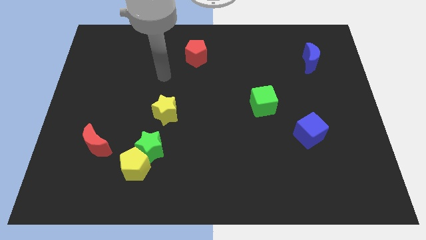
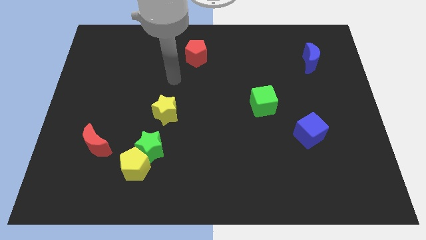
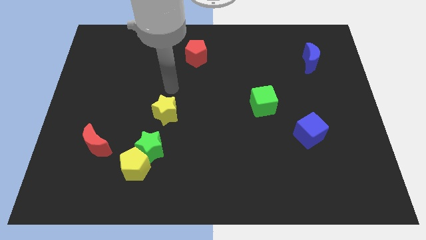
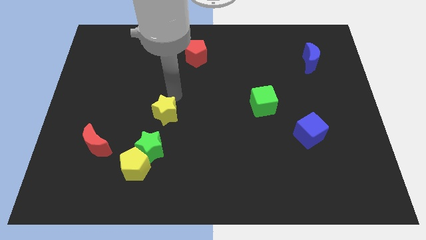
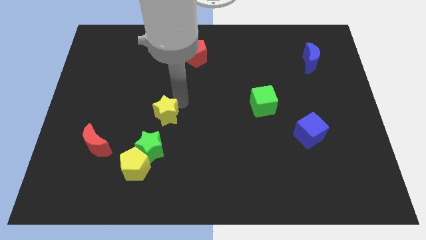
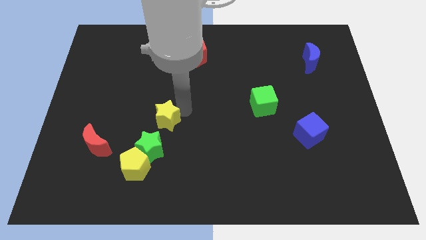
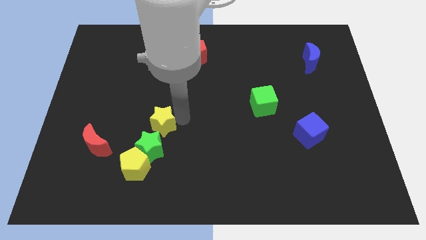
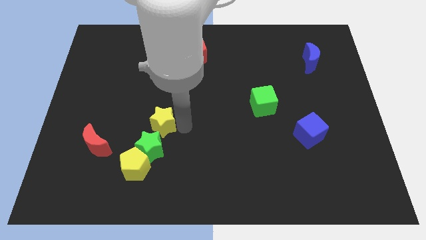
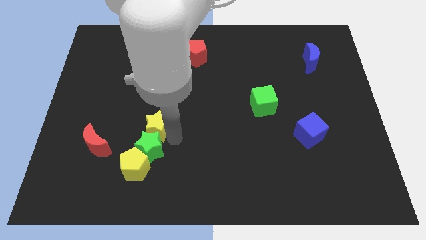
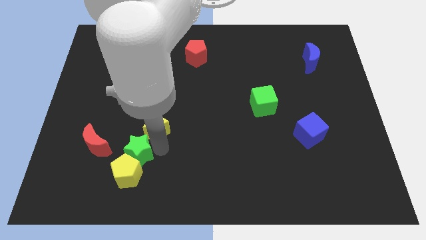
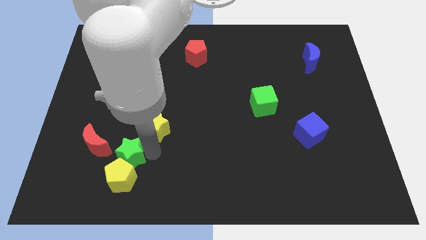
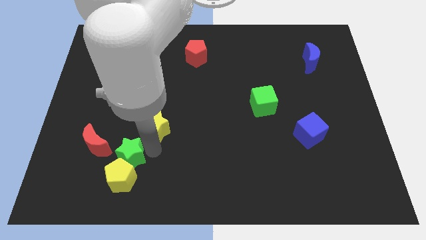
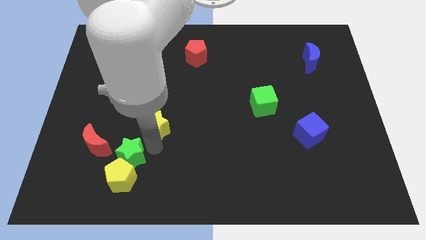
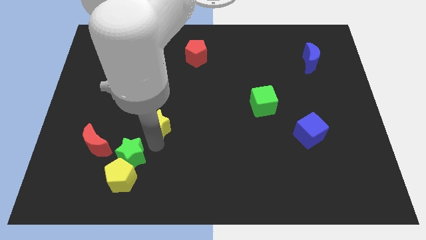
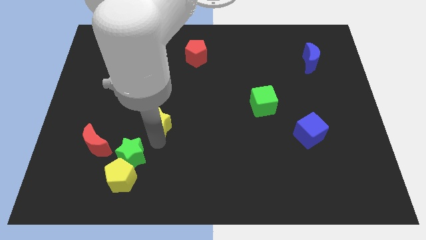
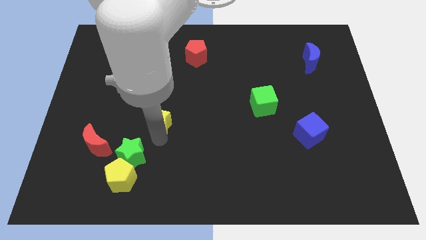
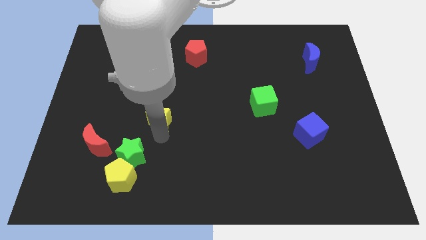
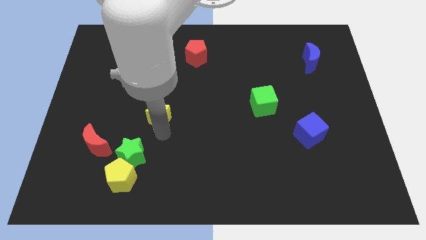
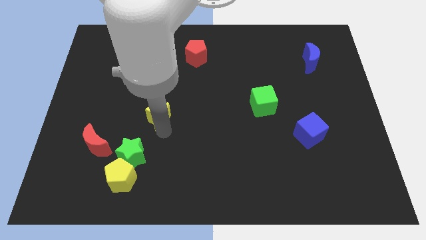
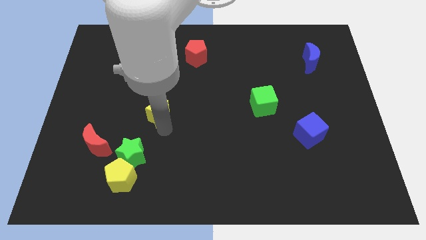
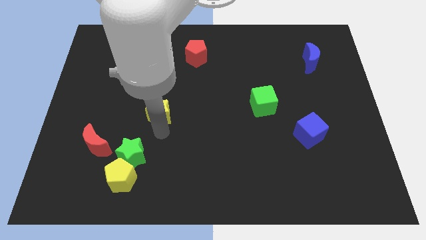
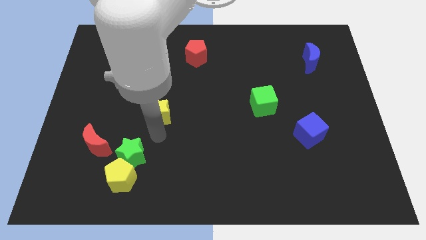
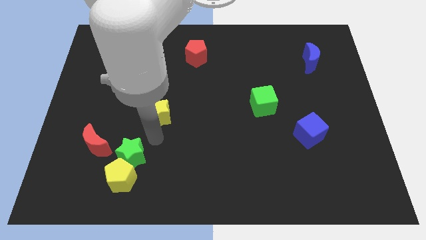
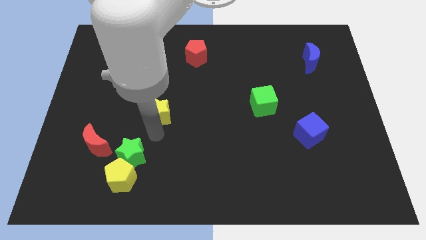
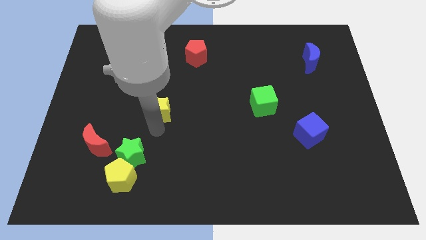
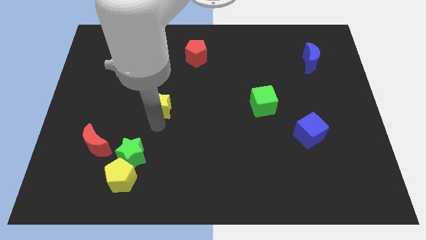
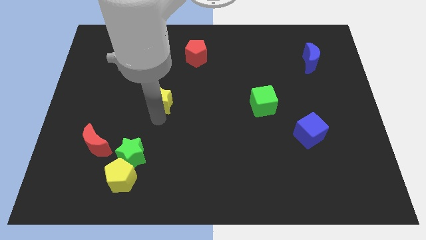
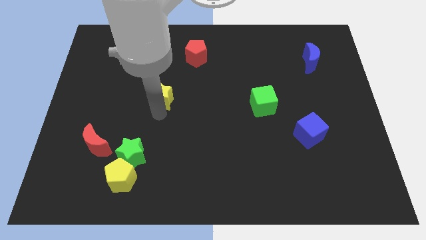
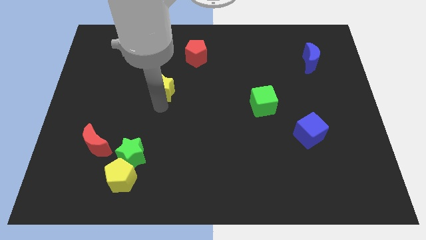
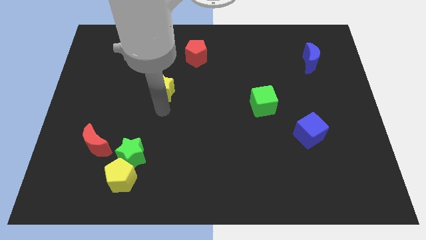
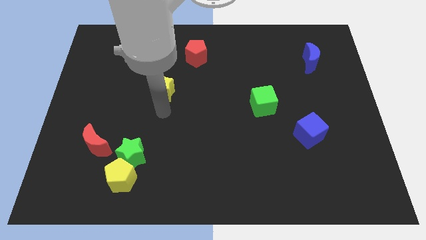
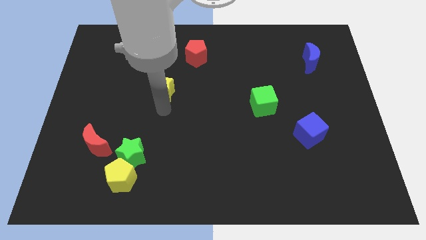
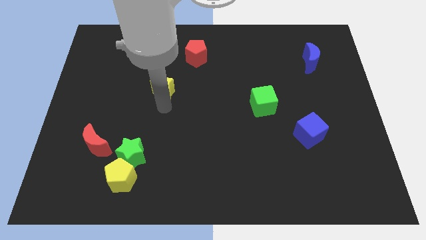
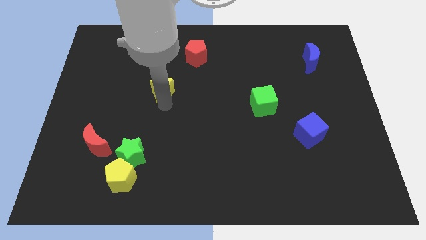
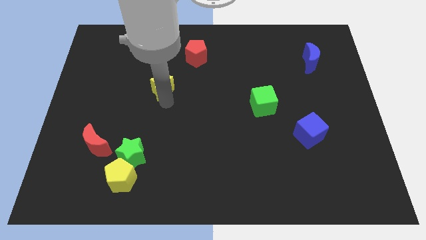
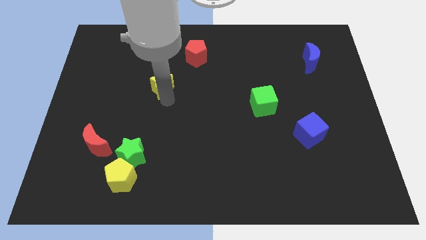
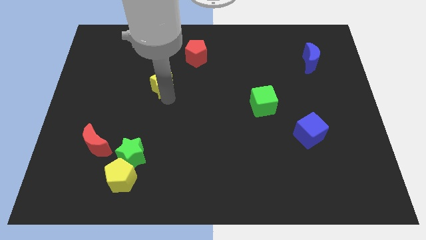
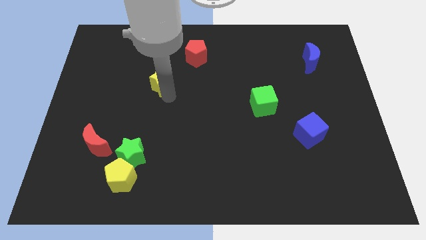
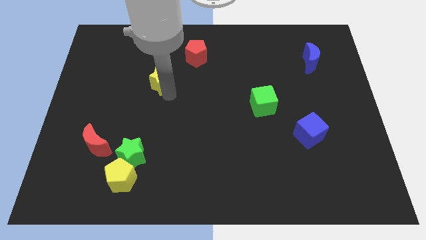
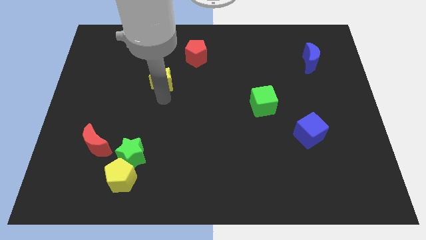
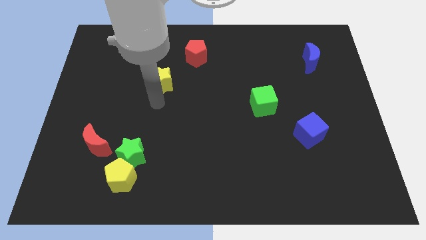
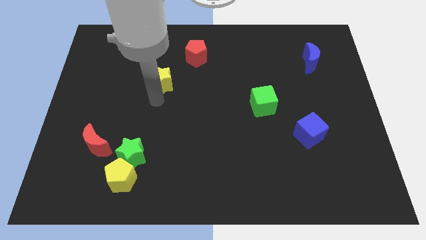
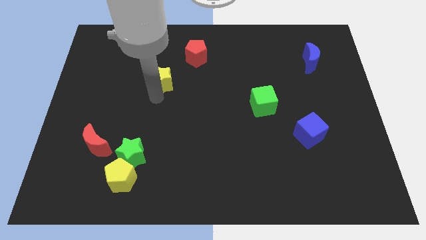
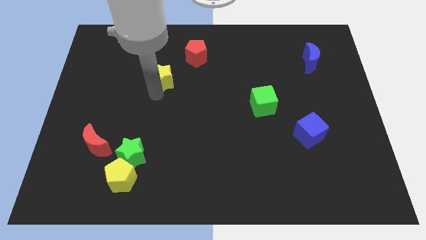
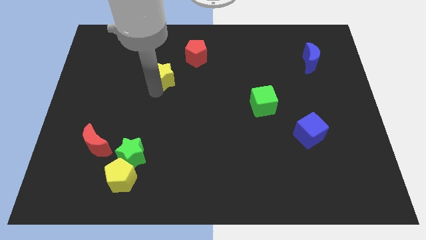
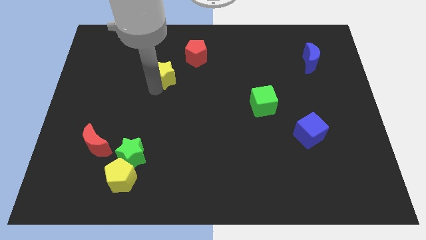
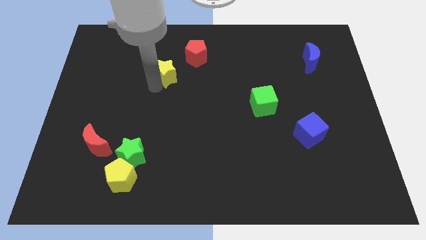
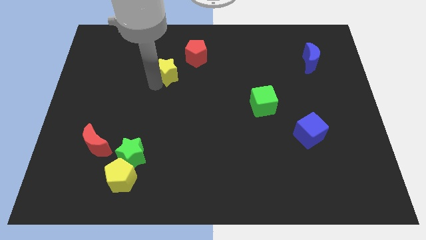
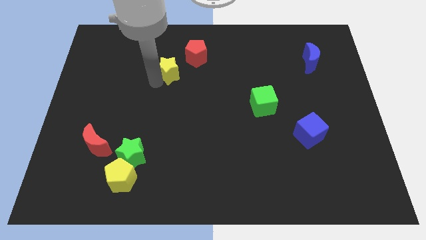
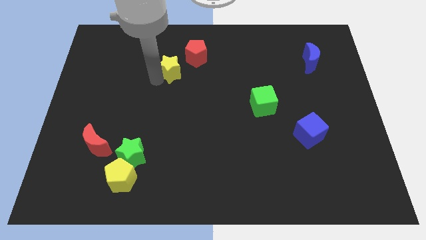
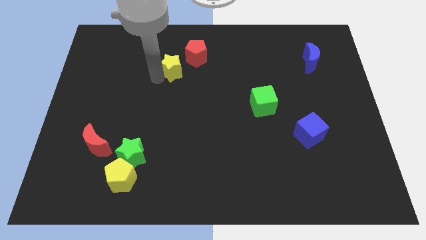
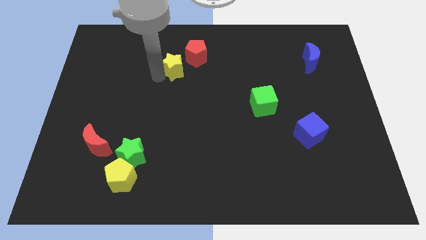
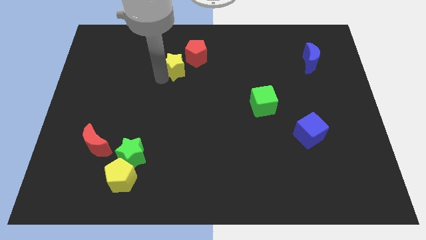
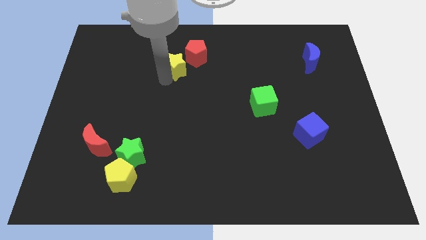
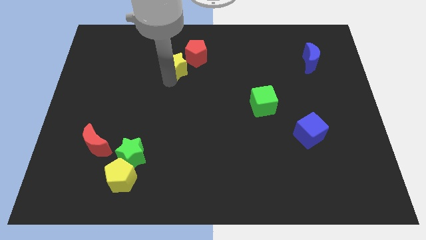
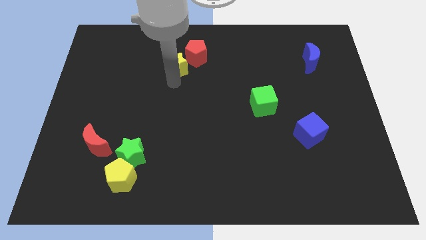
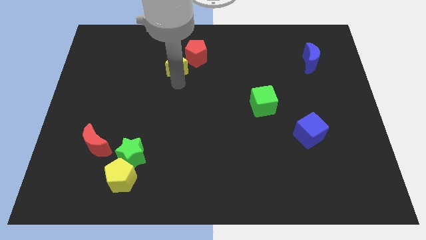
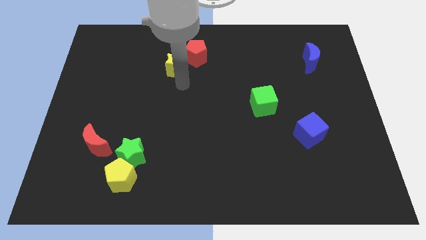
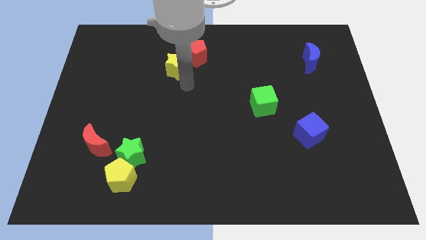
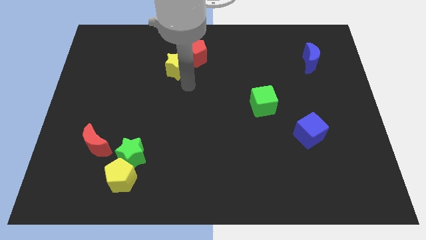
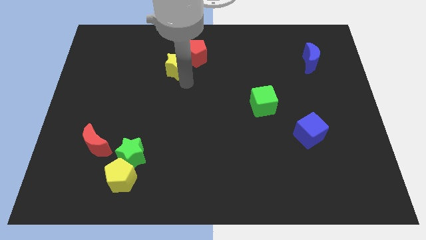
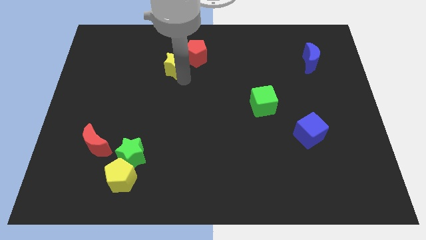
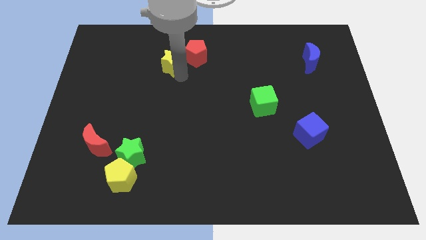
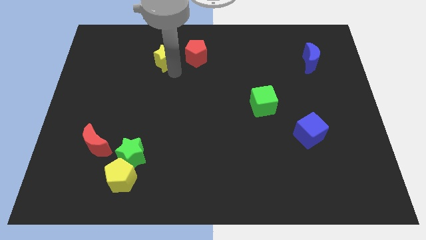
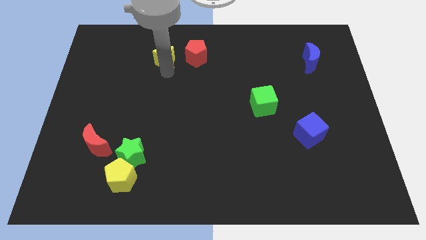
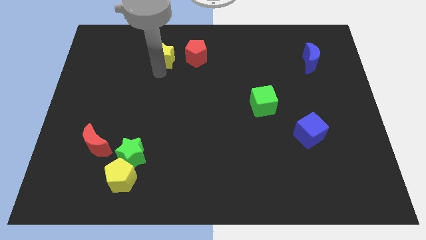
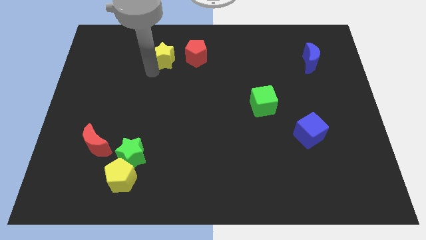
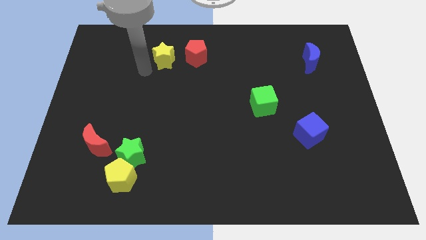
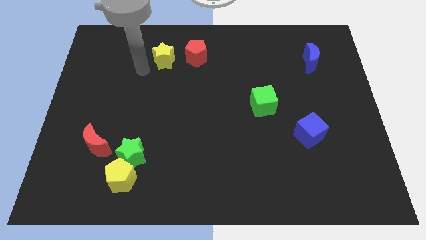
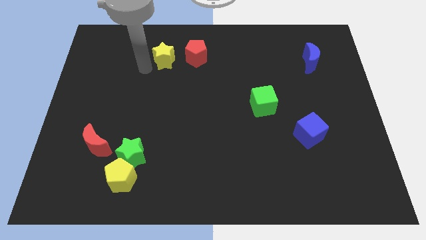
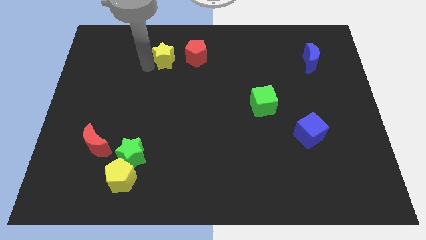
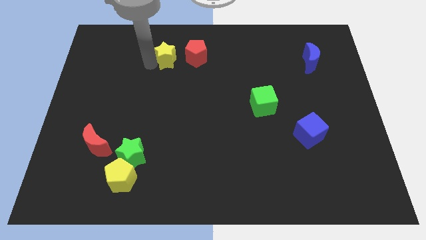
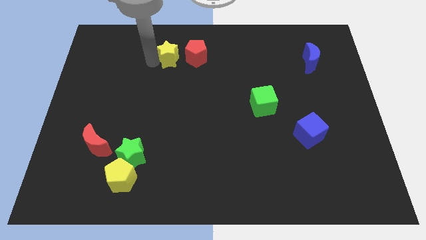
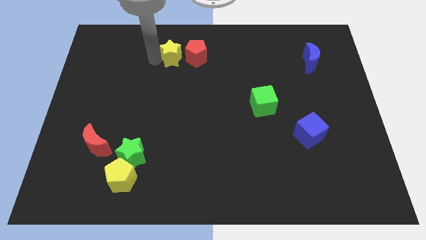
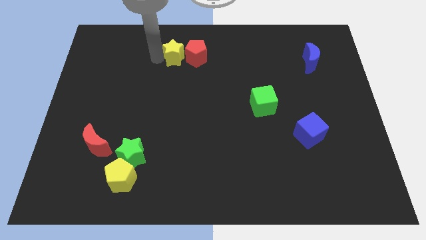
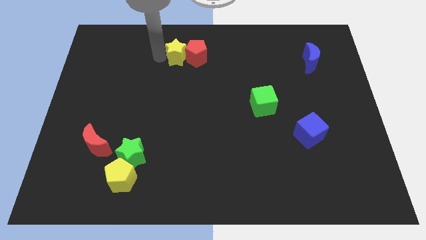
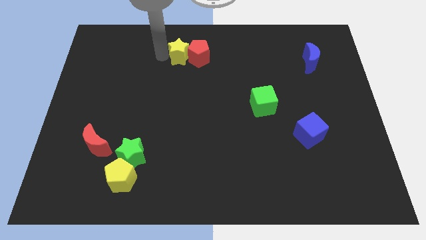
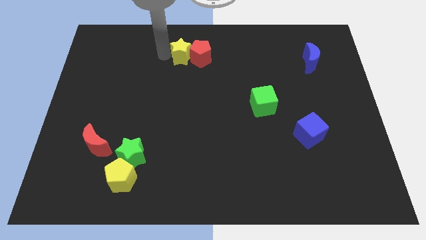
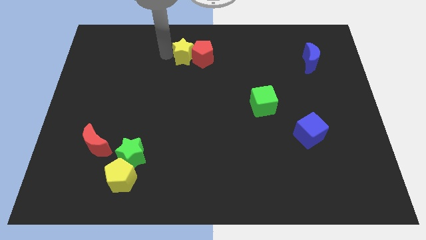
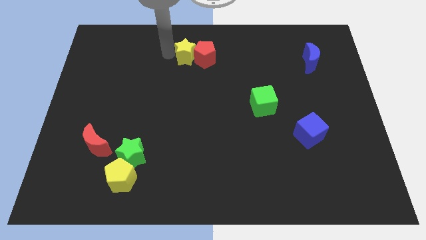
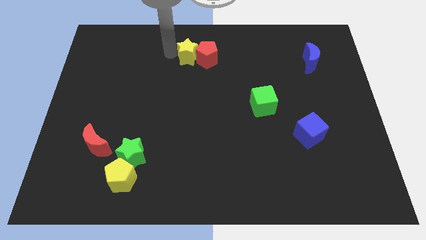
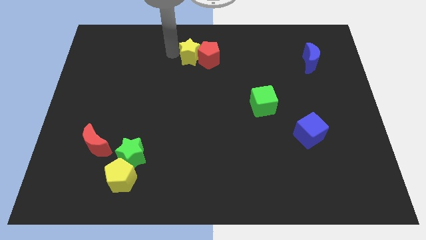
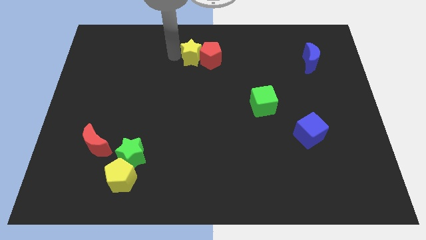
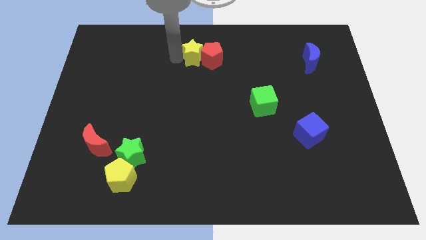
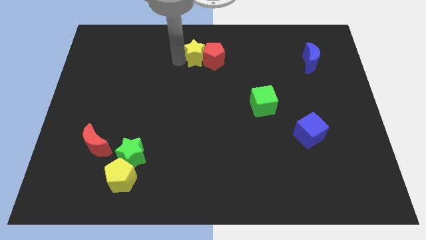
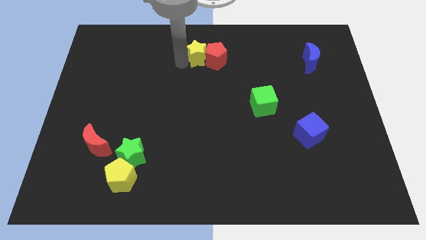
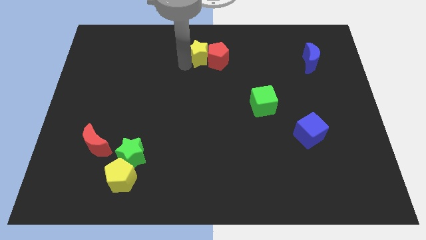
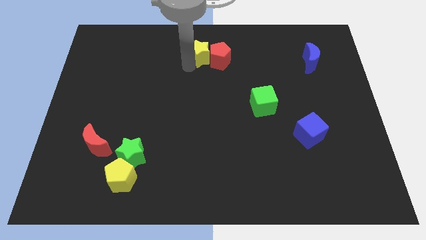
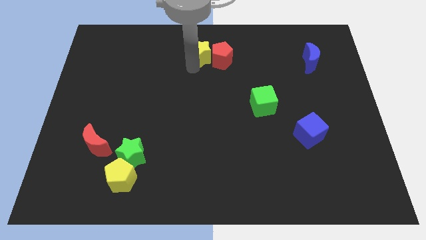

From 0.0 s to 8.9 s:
slide the yellow star to the top
